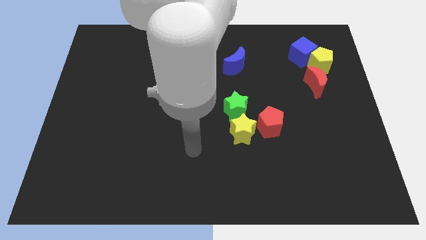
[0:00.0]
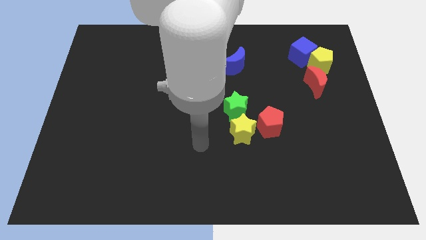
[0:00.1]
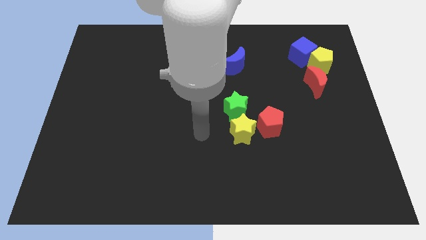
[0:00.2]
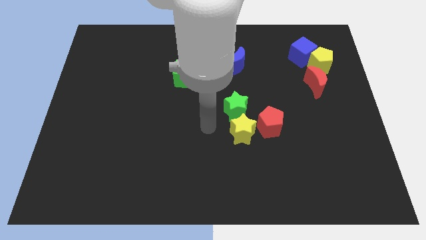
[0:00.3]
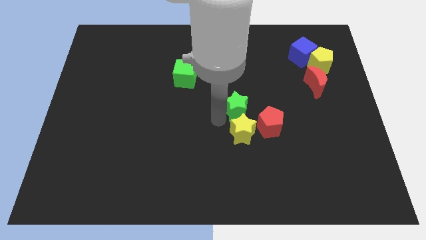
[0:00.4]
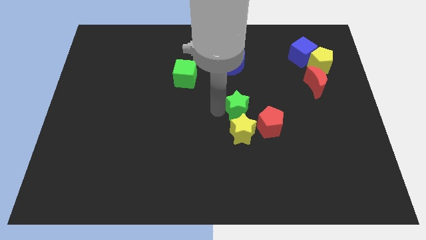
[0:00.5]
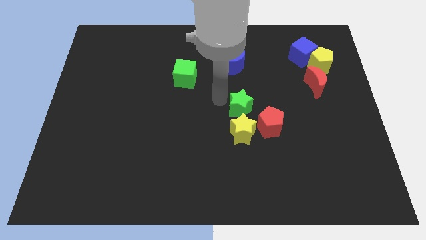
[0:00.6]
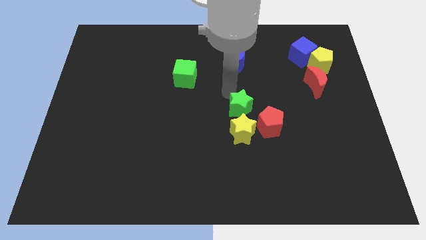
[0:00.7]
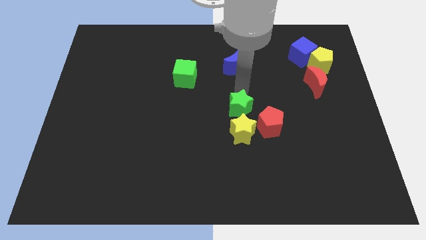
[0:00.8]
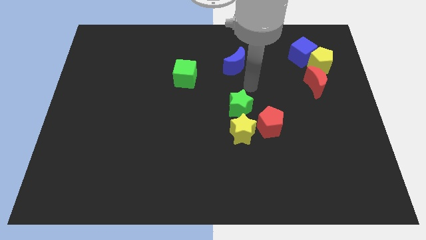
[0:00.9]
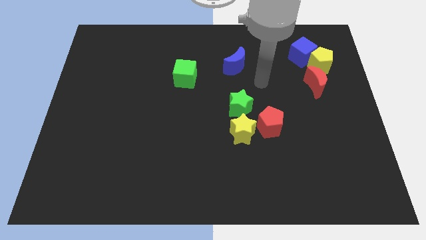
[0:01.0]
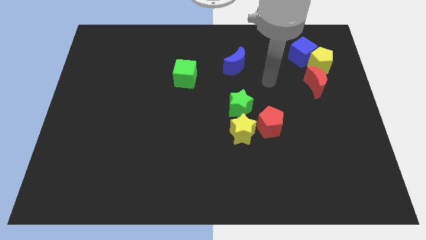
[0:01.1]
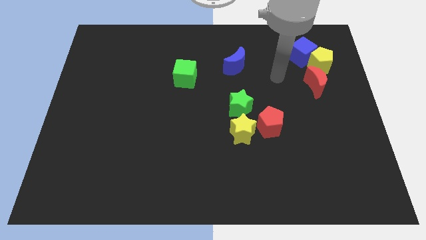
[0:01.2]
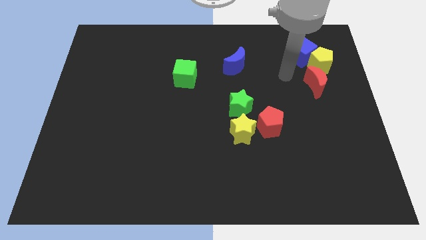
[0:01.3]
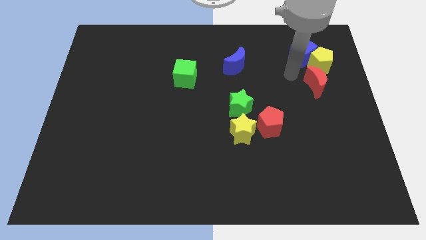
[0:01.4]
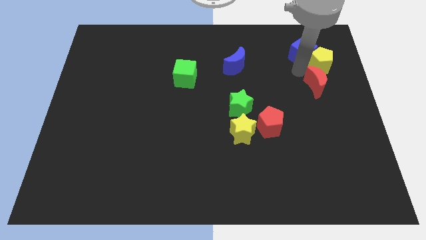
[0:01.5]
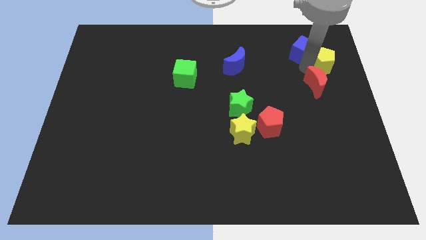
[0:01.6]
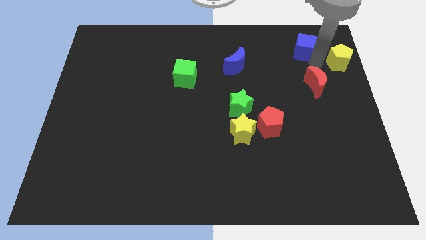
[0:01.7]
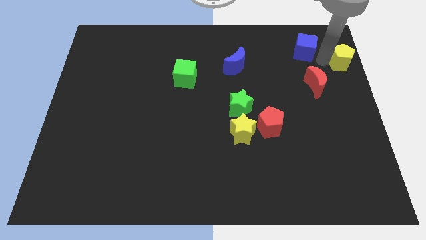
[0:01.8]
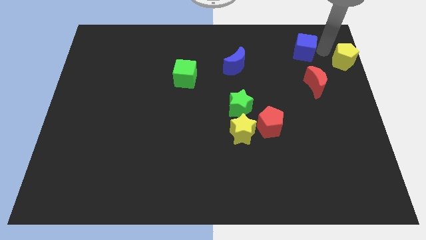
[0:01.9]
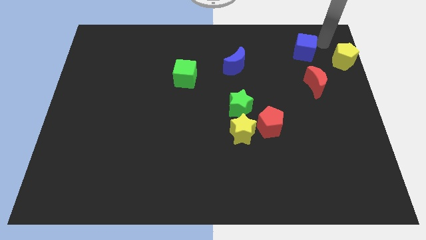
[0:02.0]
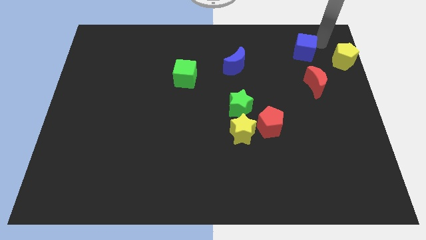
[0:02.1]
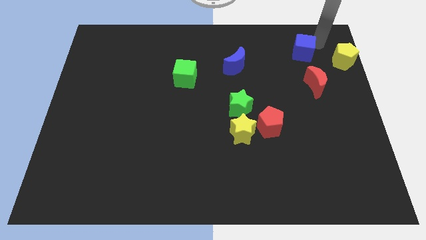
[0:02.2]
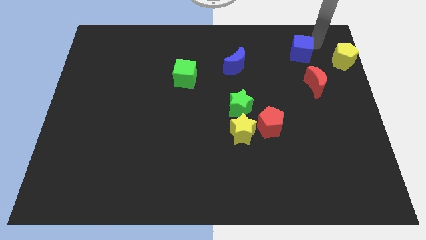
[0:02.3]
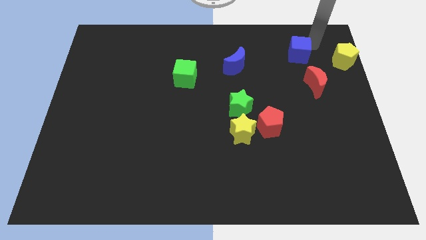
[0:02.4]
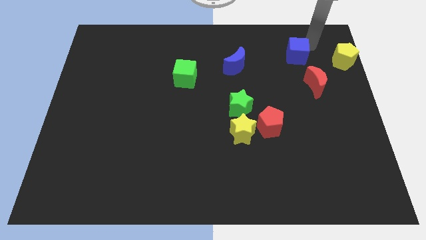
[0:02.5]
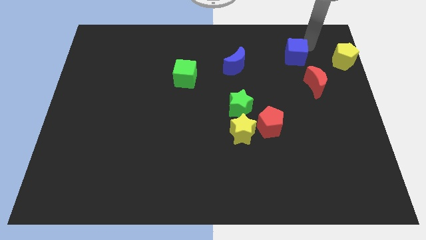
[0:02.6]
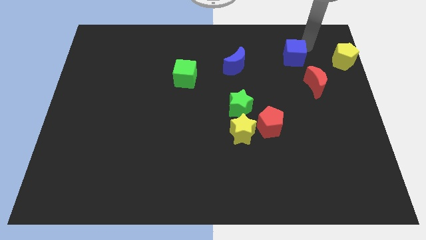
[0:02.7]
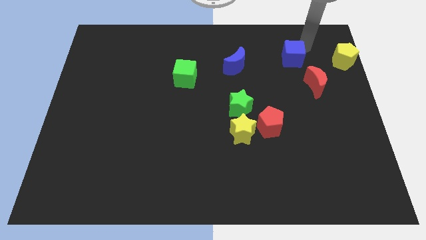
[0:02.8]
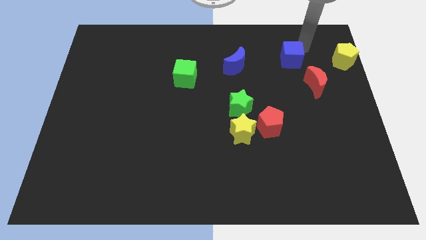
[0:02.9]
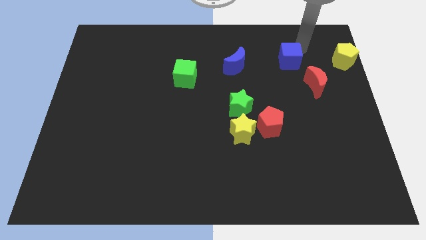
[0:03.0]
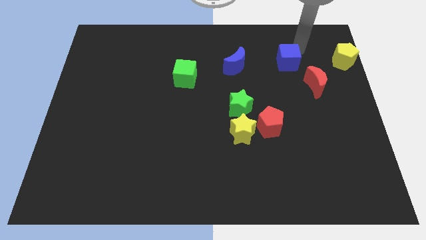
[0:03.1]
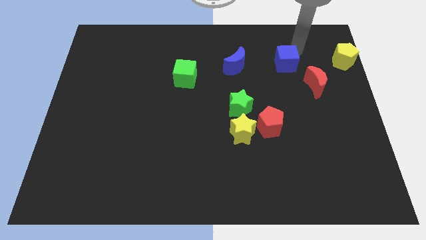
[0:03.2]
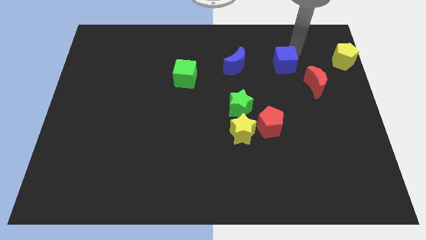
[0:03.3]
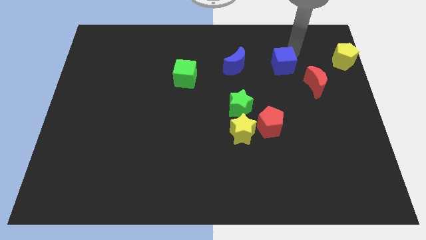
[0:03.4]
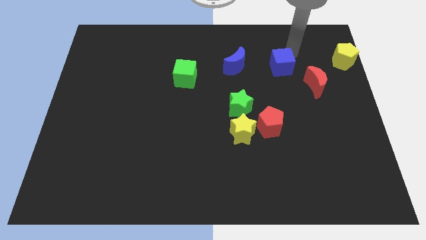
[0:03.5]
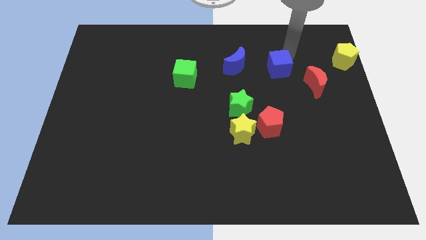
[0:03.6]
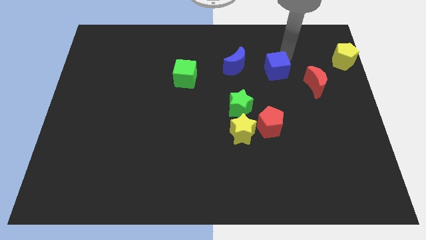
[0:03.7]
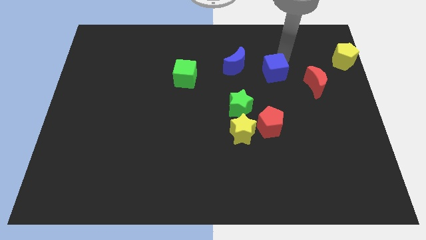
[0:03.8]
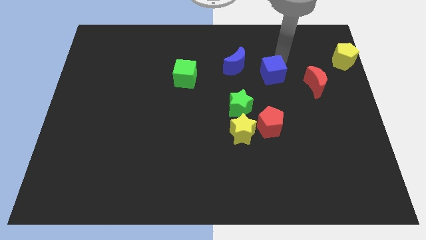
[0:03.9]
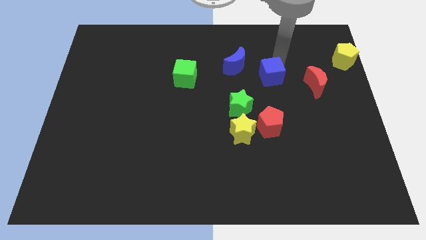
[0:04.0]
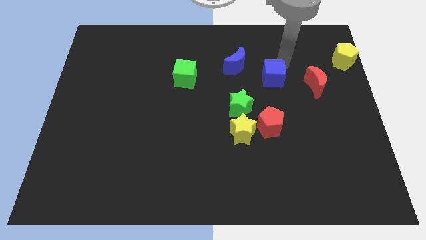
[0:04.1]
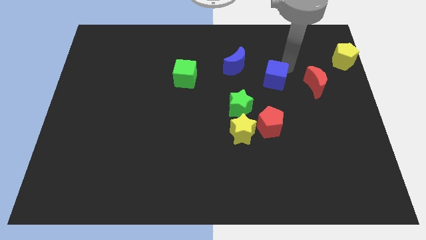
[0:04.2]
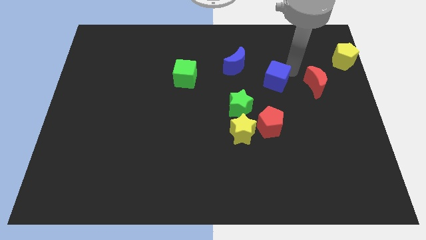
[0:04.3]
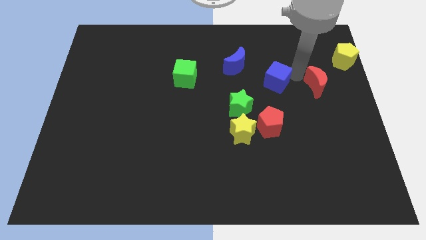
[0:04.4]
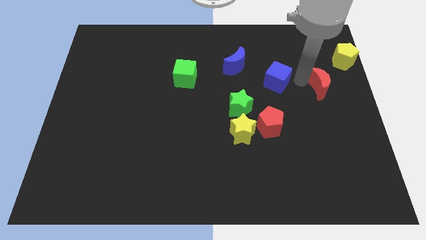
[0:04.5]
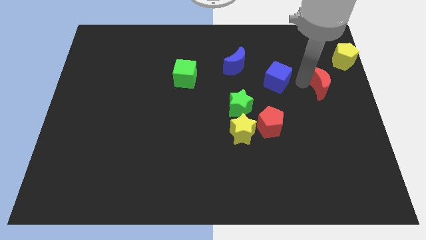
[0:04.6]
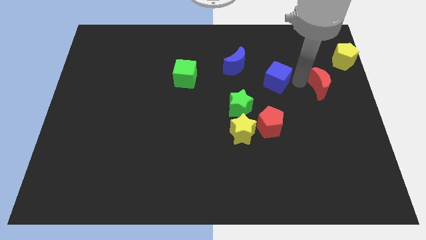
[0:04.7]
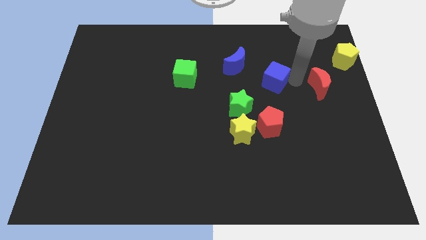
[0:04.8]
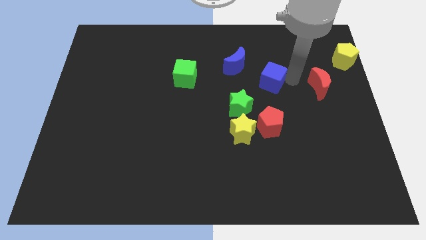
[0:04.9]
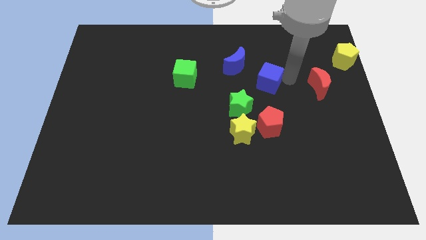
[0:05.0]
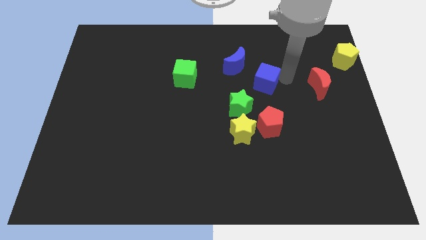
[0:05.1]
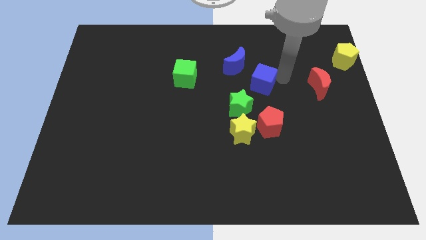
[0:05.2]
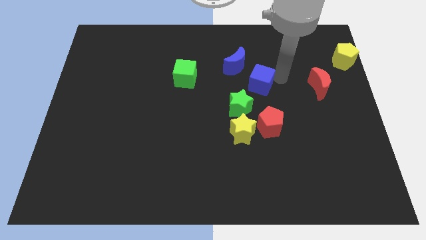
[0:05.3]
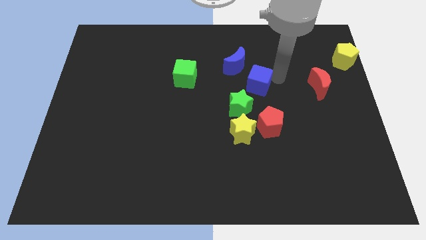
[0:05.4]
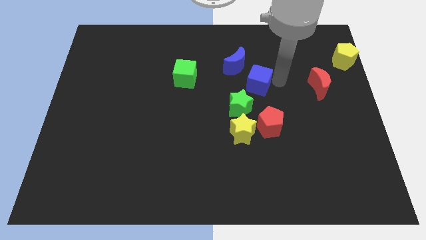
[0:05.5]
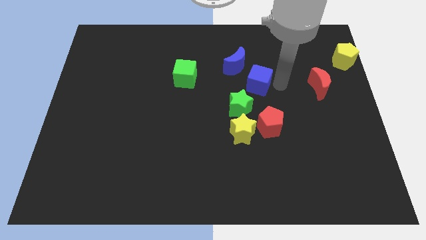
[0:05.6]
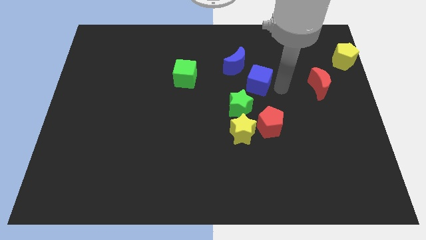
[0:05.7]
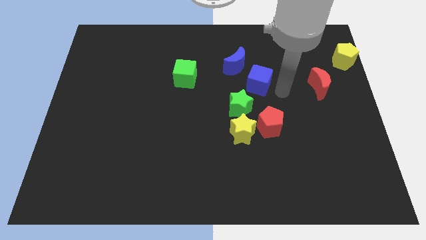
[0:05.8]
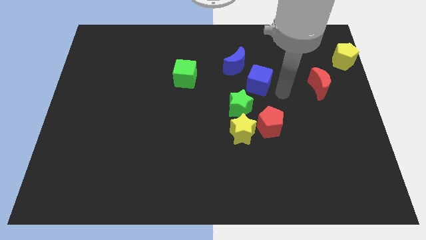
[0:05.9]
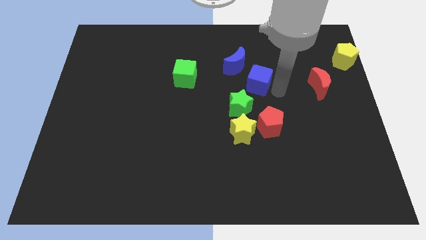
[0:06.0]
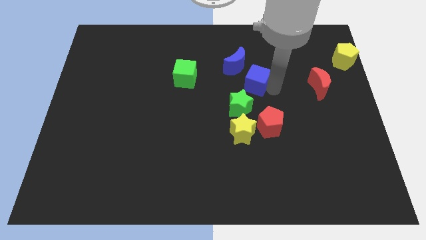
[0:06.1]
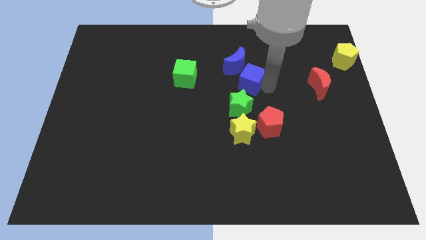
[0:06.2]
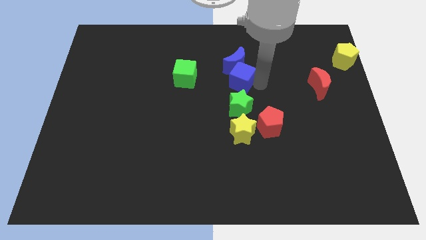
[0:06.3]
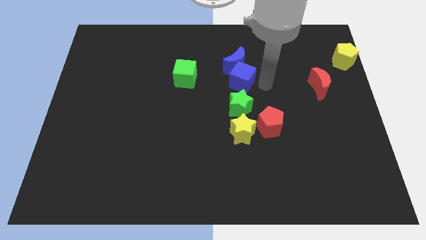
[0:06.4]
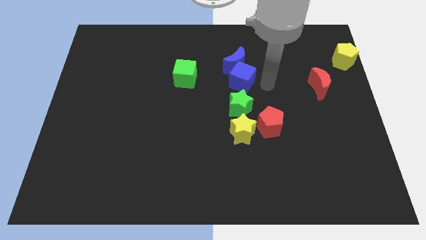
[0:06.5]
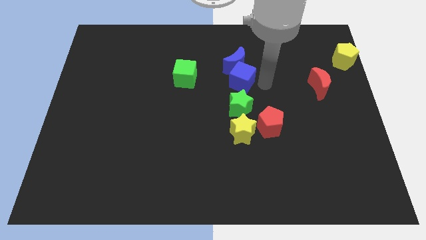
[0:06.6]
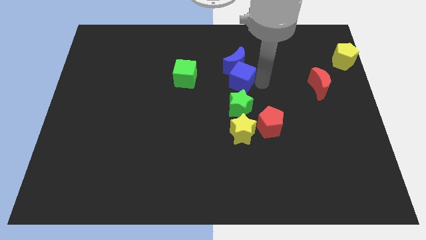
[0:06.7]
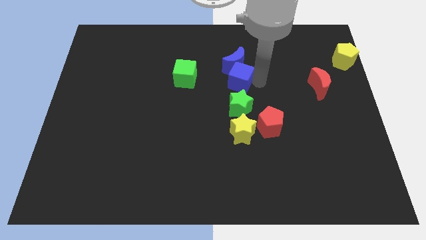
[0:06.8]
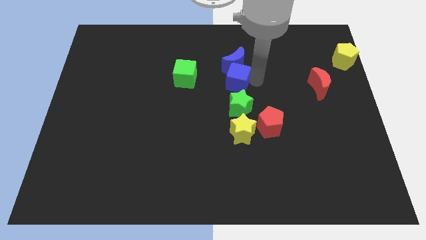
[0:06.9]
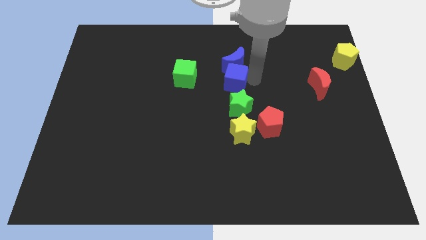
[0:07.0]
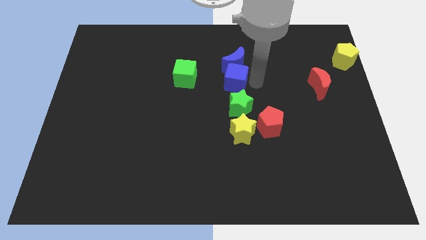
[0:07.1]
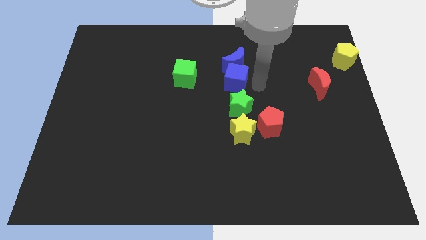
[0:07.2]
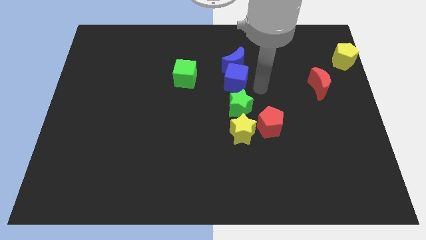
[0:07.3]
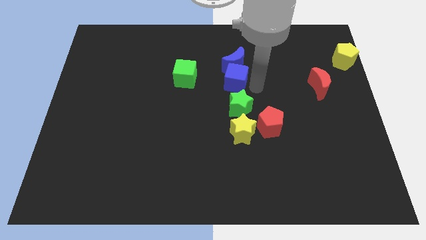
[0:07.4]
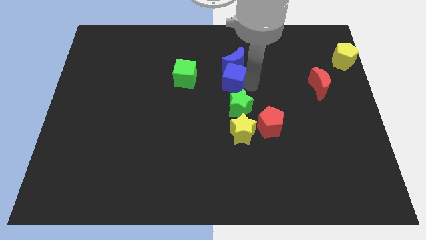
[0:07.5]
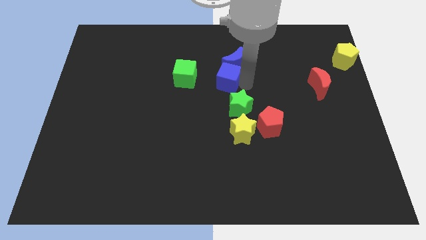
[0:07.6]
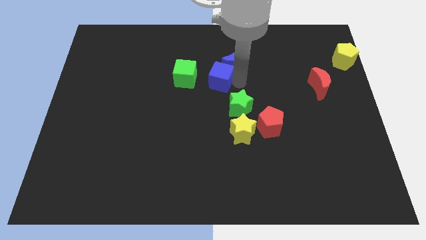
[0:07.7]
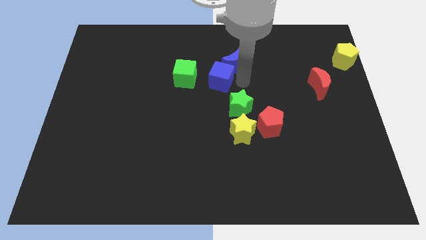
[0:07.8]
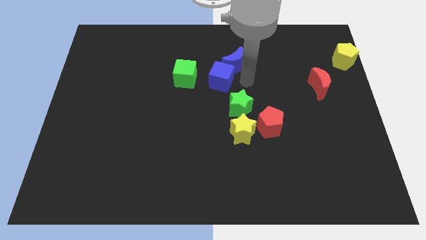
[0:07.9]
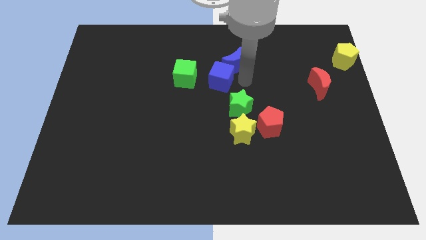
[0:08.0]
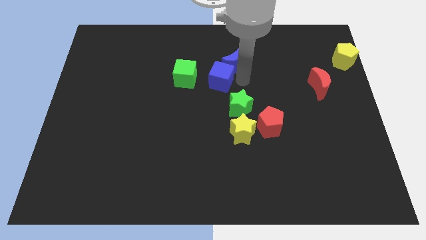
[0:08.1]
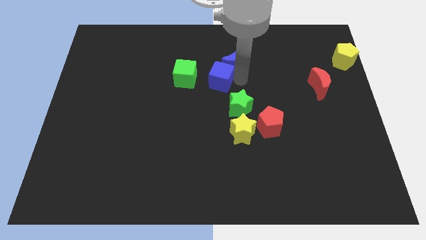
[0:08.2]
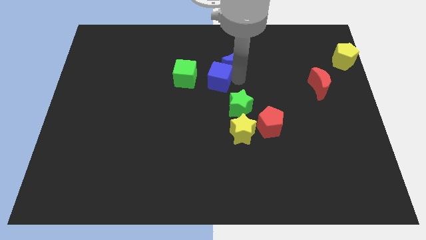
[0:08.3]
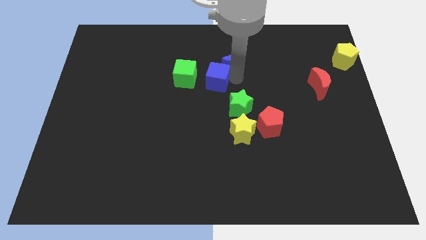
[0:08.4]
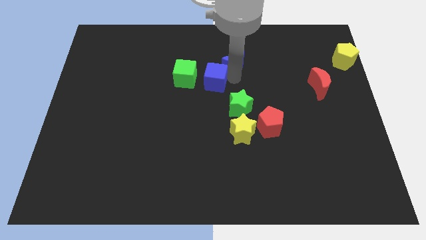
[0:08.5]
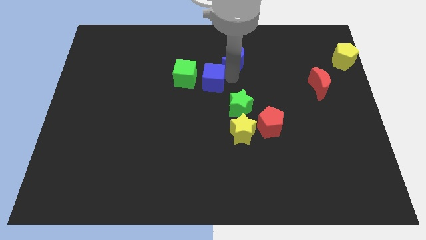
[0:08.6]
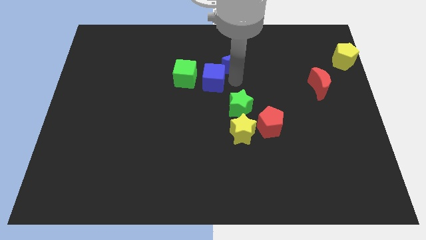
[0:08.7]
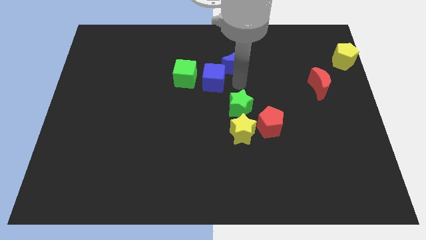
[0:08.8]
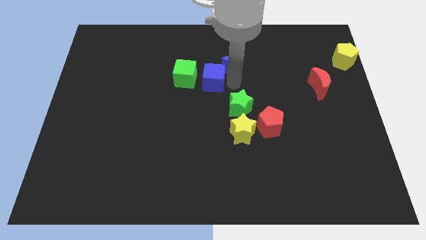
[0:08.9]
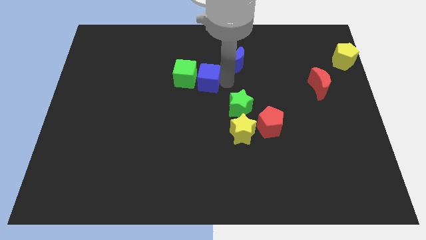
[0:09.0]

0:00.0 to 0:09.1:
slide the blue cube next to the green cube
